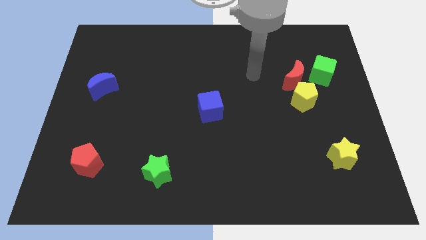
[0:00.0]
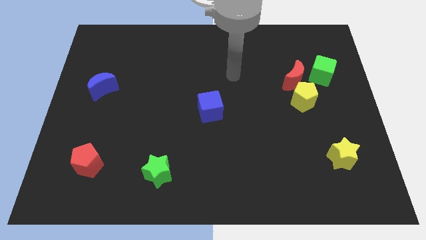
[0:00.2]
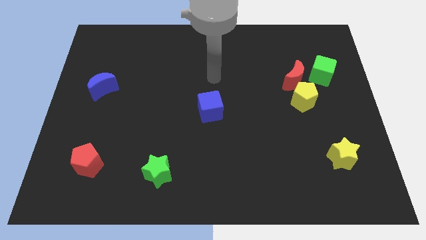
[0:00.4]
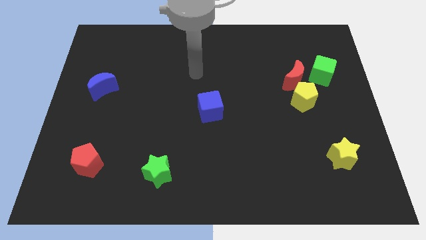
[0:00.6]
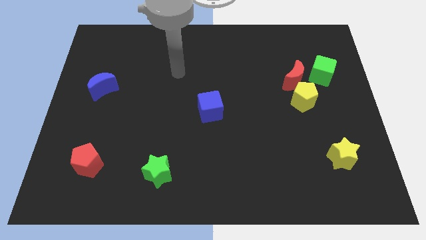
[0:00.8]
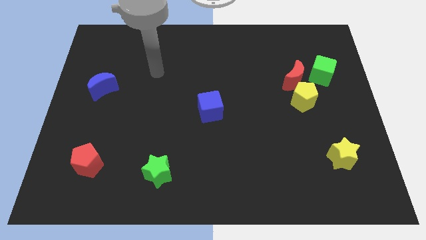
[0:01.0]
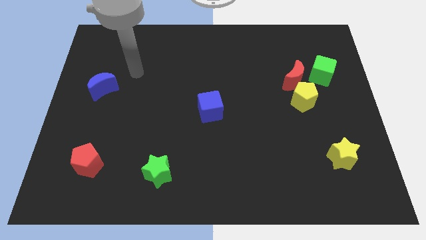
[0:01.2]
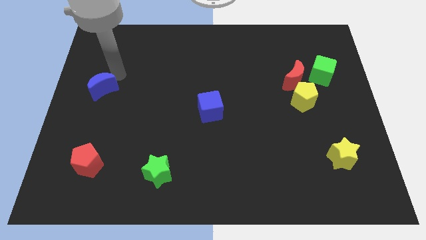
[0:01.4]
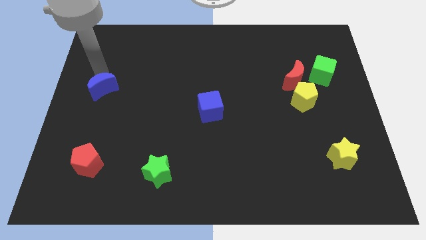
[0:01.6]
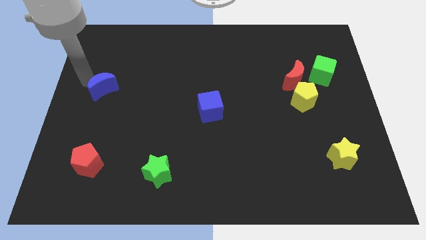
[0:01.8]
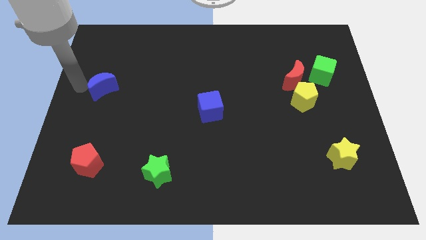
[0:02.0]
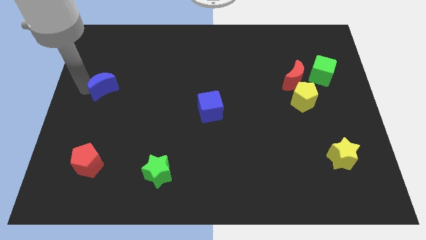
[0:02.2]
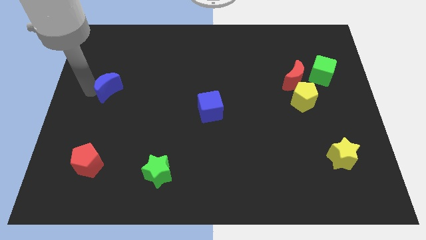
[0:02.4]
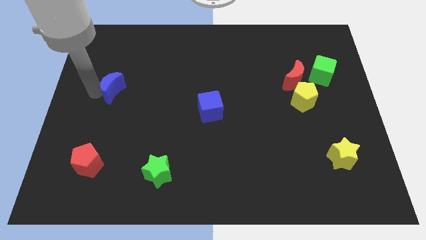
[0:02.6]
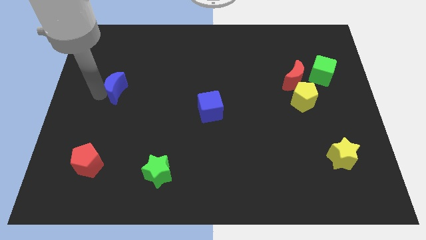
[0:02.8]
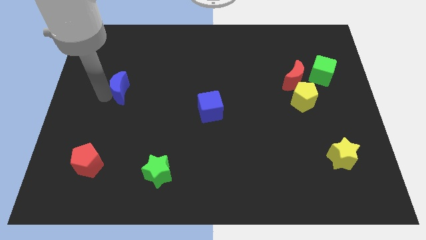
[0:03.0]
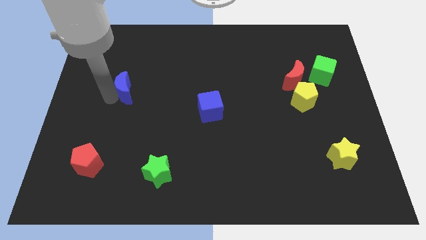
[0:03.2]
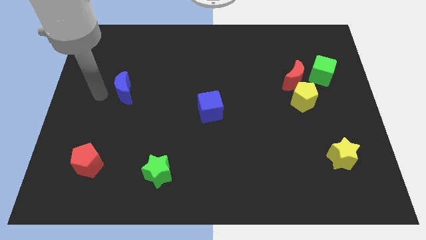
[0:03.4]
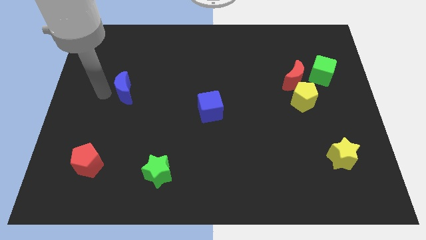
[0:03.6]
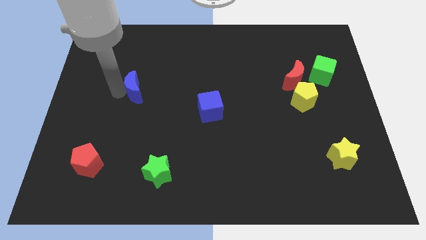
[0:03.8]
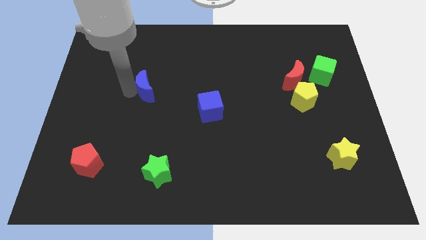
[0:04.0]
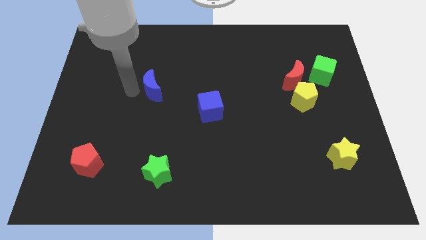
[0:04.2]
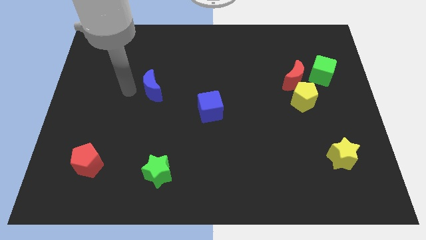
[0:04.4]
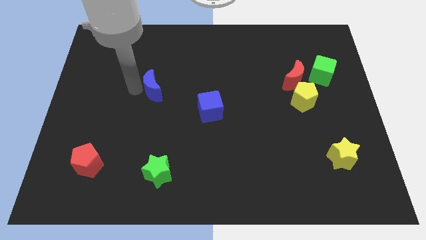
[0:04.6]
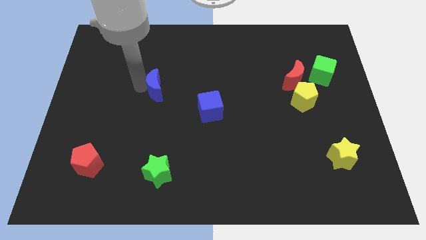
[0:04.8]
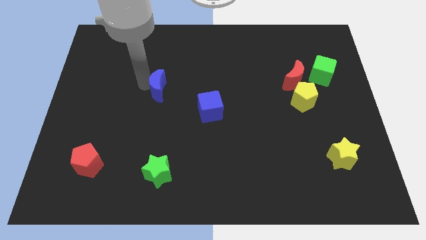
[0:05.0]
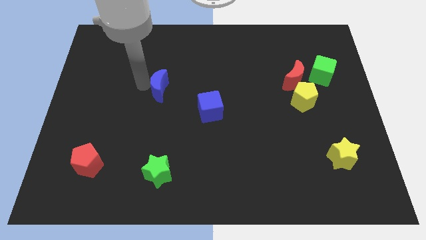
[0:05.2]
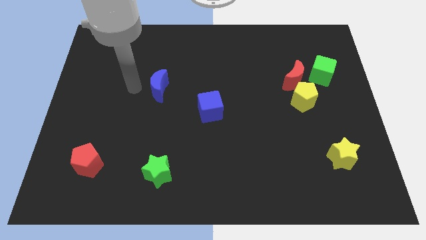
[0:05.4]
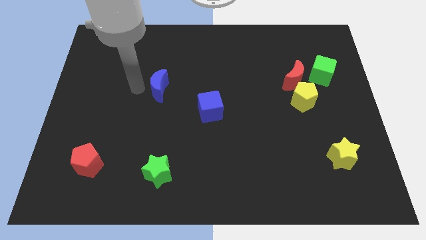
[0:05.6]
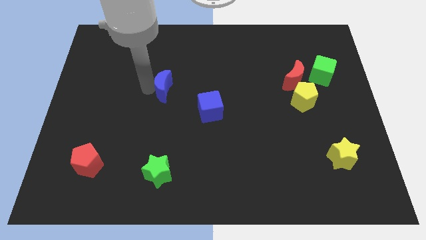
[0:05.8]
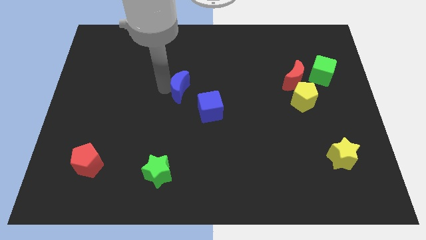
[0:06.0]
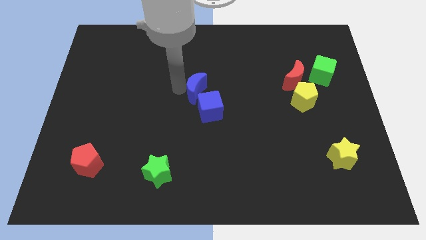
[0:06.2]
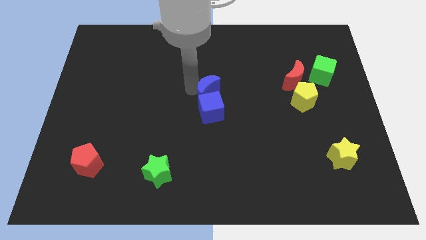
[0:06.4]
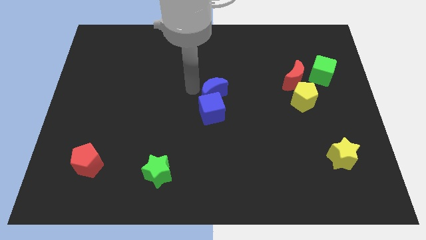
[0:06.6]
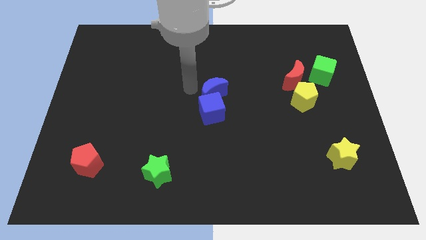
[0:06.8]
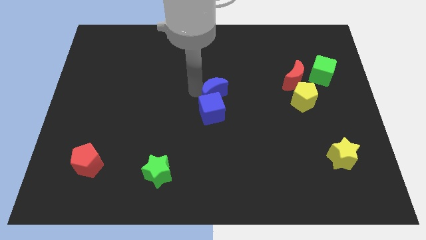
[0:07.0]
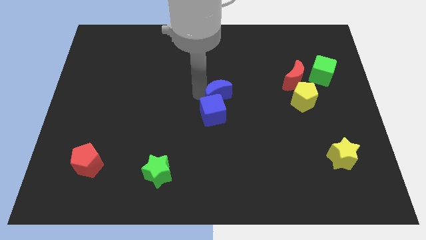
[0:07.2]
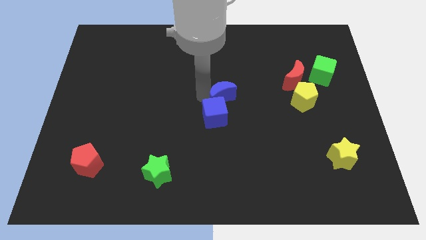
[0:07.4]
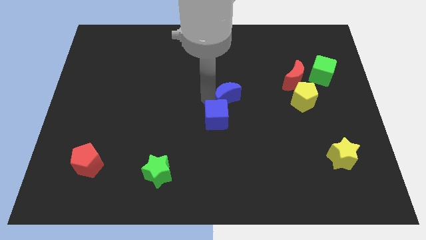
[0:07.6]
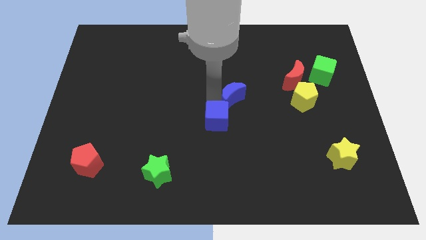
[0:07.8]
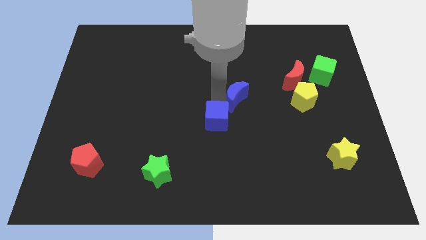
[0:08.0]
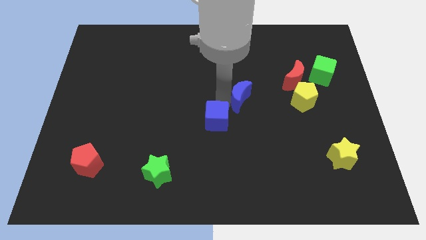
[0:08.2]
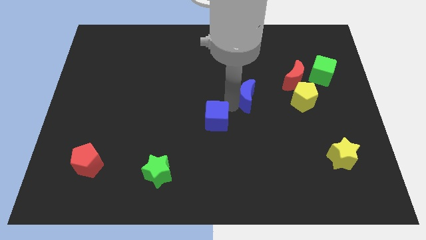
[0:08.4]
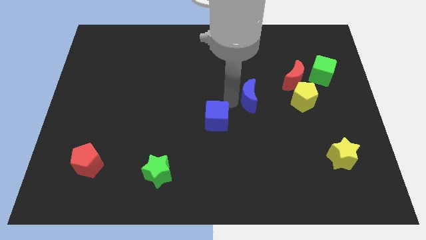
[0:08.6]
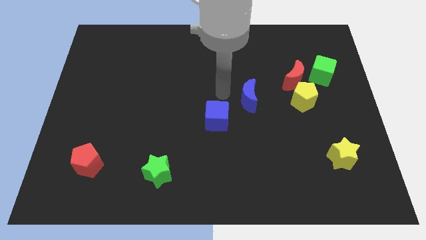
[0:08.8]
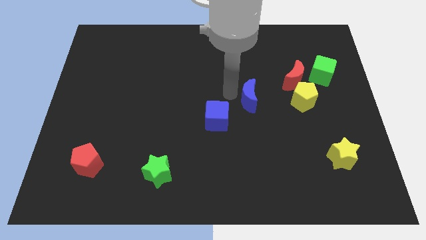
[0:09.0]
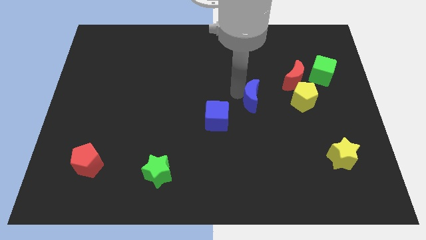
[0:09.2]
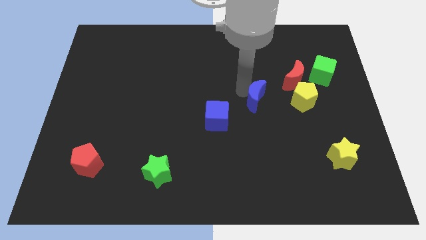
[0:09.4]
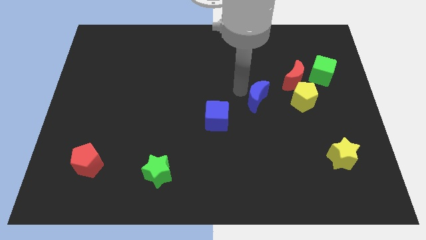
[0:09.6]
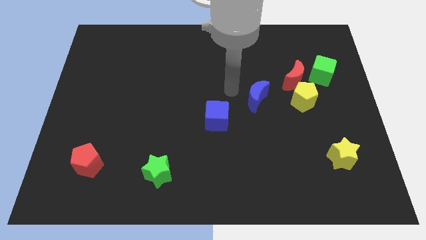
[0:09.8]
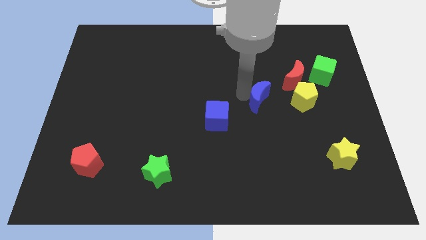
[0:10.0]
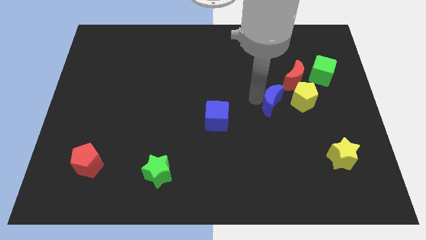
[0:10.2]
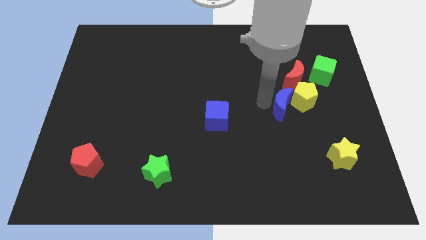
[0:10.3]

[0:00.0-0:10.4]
push the blue moon next to the yellow pentagon
